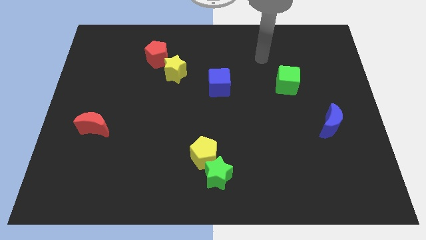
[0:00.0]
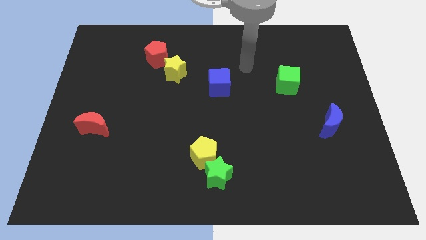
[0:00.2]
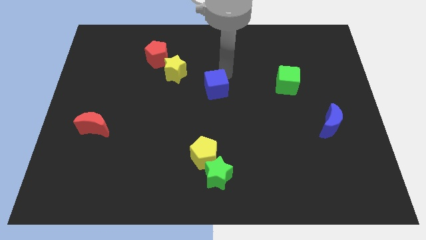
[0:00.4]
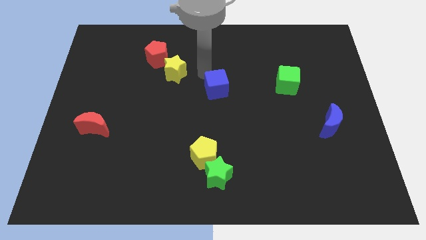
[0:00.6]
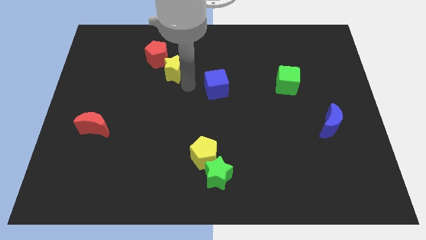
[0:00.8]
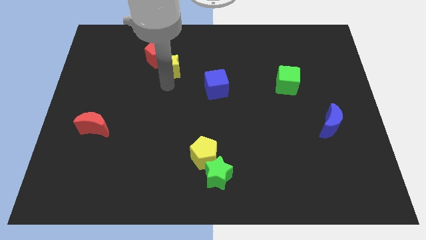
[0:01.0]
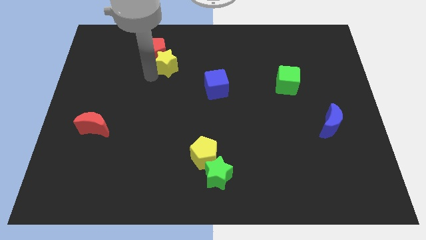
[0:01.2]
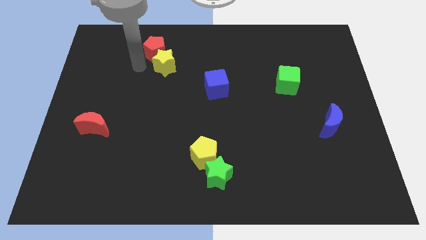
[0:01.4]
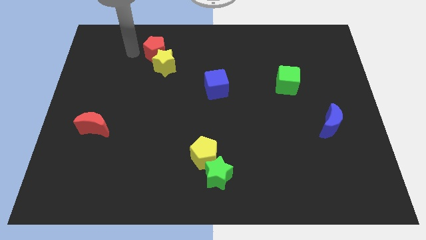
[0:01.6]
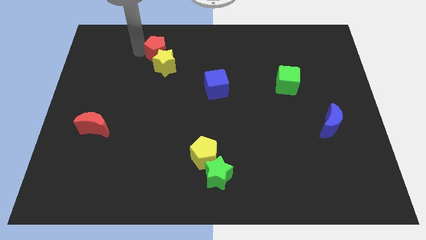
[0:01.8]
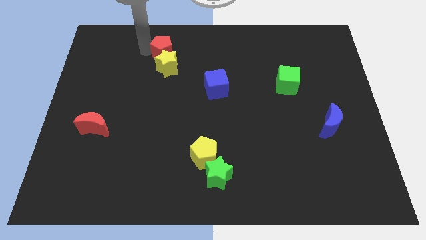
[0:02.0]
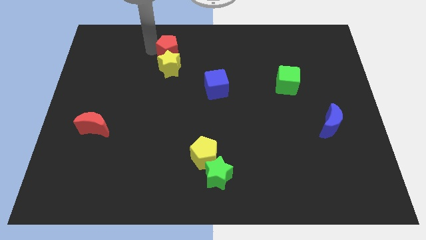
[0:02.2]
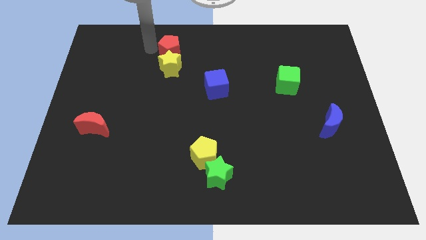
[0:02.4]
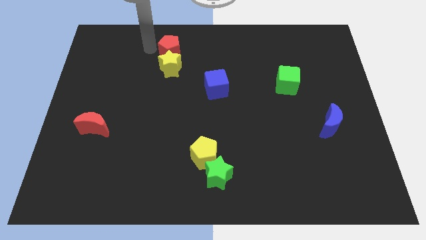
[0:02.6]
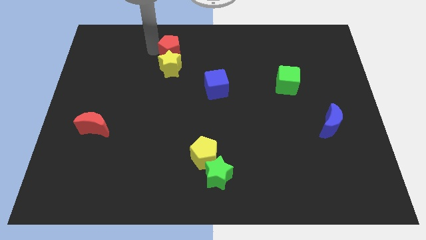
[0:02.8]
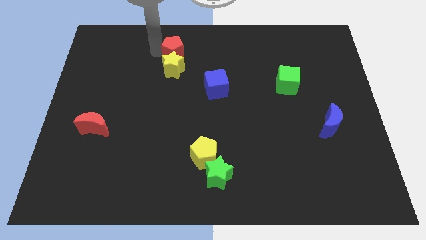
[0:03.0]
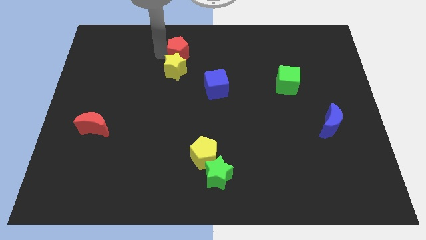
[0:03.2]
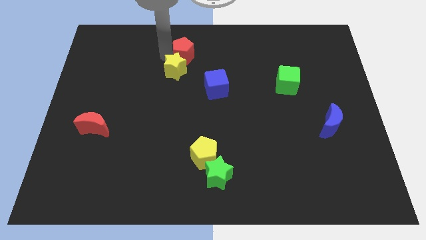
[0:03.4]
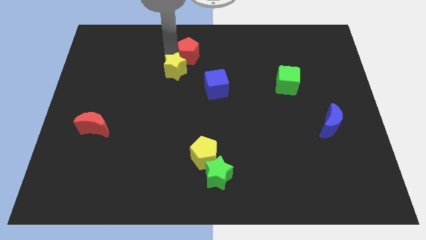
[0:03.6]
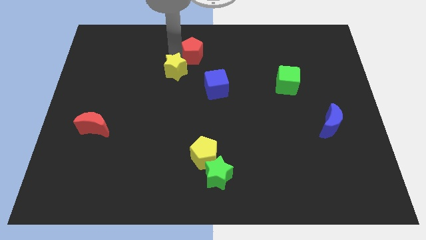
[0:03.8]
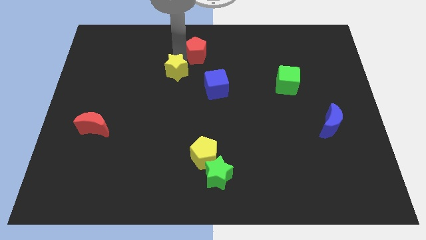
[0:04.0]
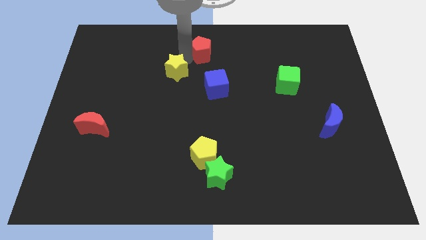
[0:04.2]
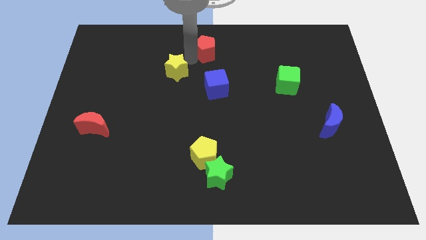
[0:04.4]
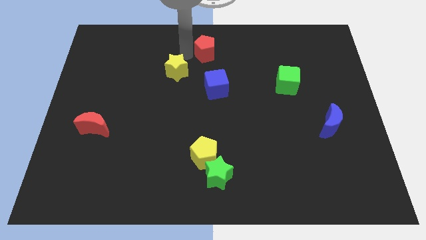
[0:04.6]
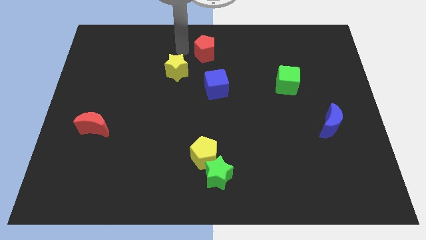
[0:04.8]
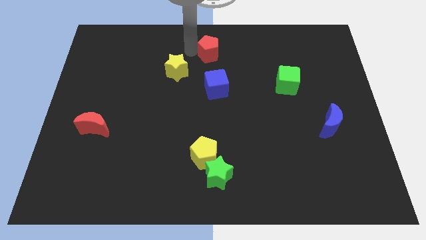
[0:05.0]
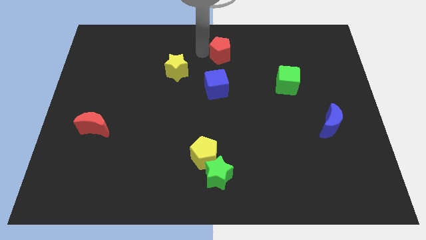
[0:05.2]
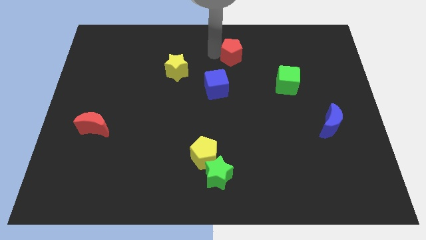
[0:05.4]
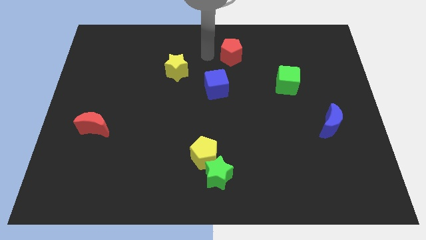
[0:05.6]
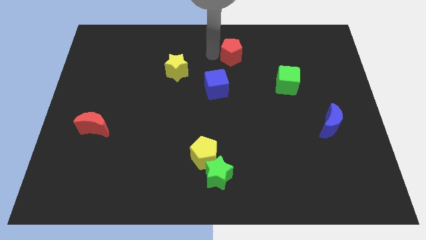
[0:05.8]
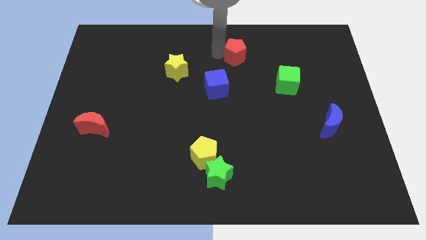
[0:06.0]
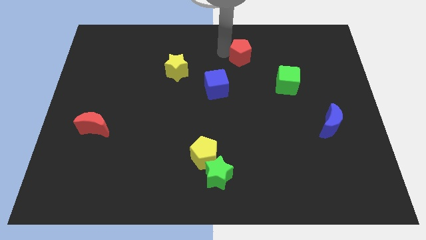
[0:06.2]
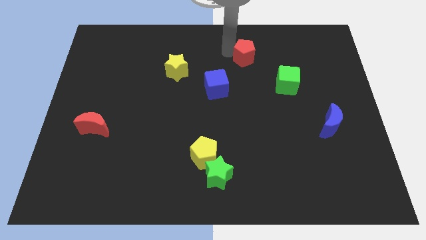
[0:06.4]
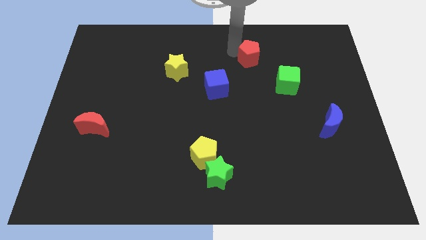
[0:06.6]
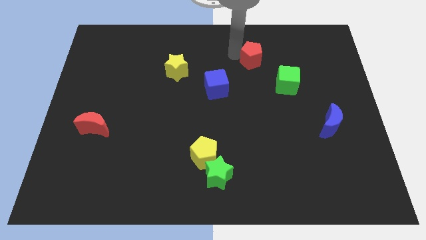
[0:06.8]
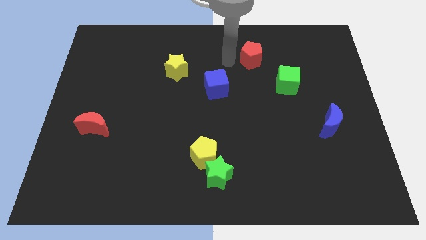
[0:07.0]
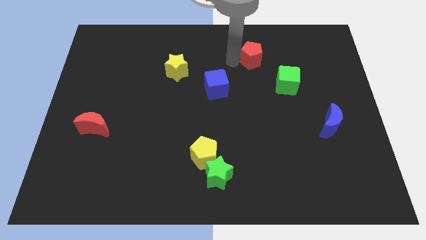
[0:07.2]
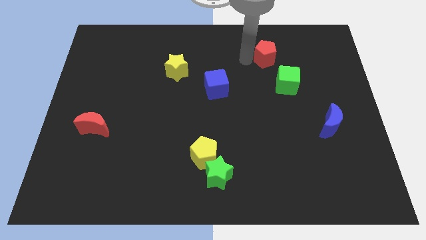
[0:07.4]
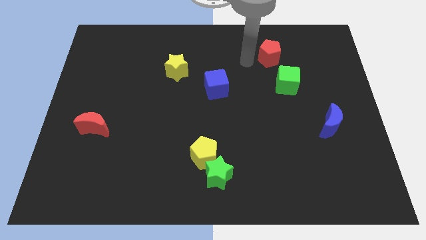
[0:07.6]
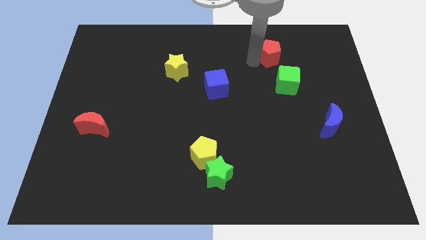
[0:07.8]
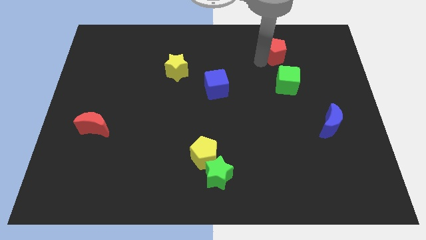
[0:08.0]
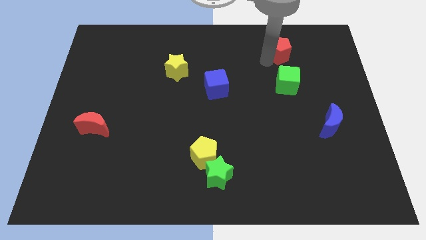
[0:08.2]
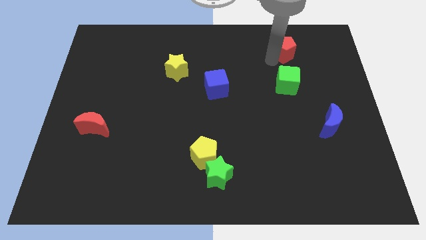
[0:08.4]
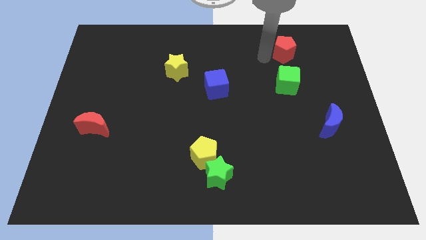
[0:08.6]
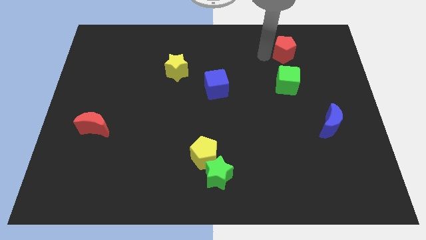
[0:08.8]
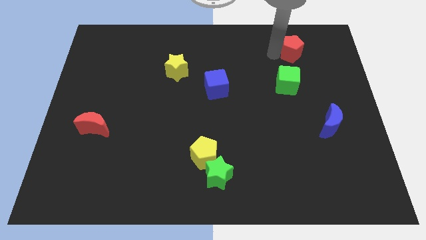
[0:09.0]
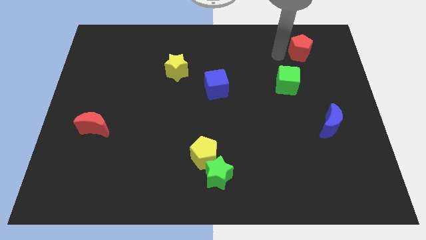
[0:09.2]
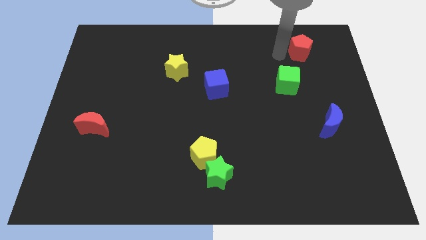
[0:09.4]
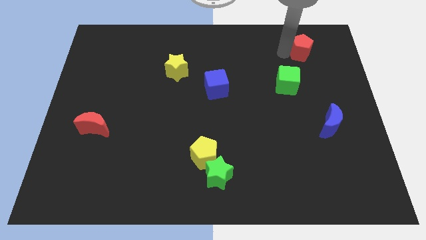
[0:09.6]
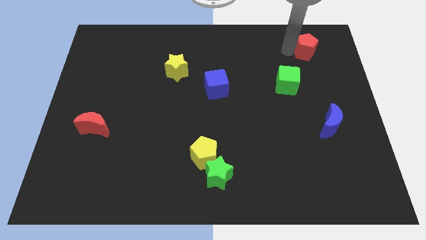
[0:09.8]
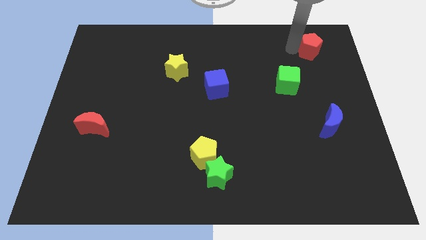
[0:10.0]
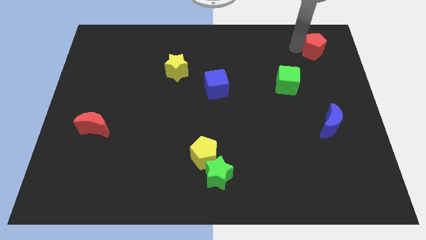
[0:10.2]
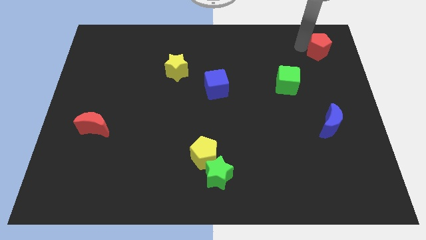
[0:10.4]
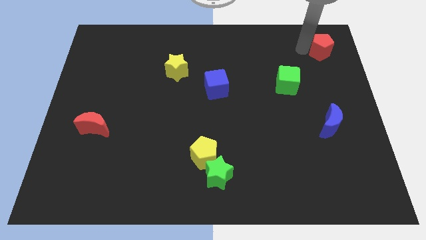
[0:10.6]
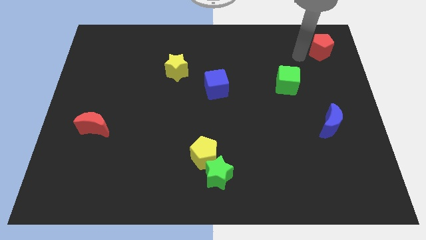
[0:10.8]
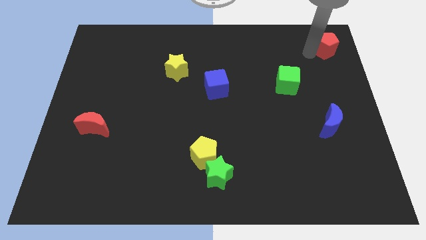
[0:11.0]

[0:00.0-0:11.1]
push the red pentagon to the top right

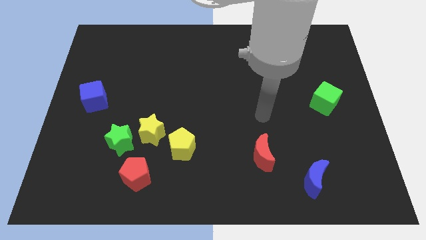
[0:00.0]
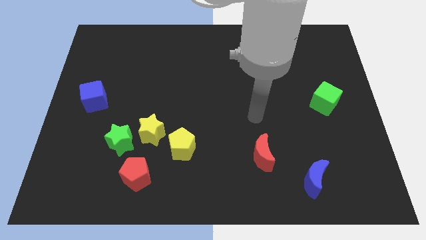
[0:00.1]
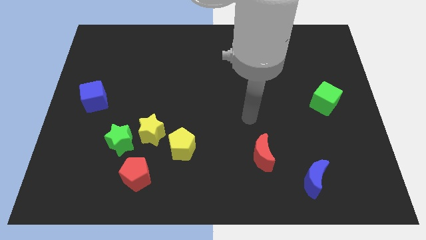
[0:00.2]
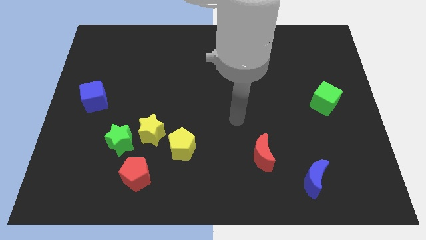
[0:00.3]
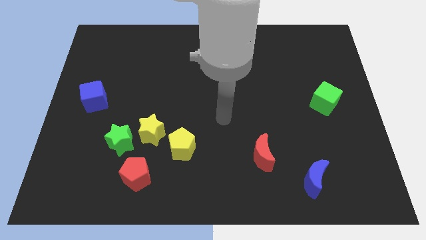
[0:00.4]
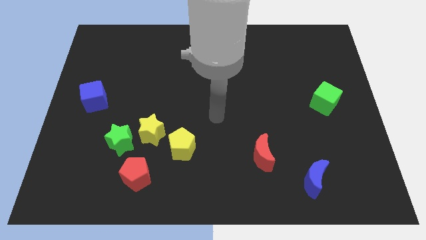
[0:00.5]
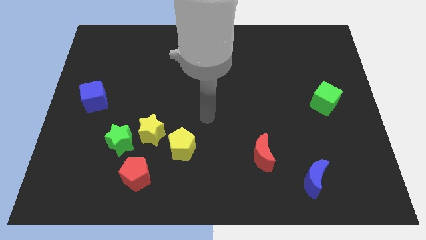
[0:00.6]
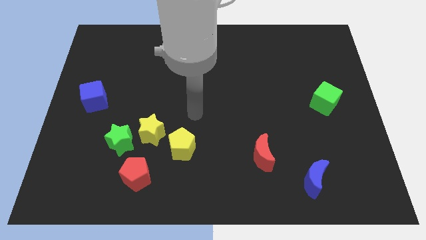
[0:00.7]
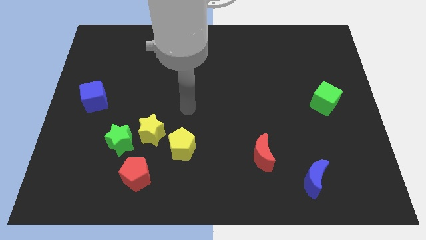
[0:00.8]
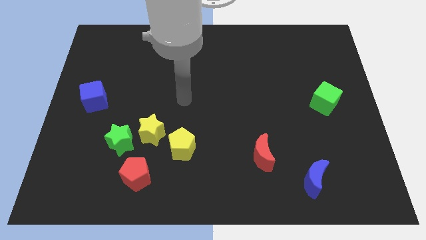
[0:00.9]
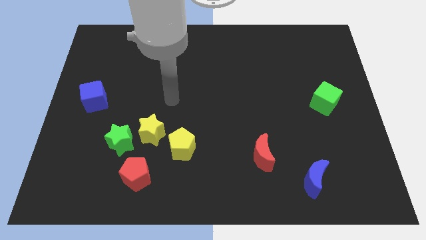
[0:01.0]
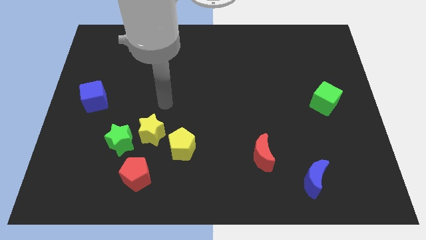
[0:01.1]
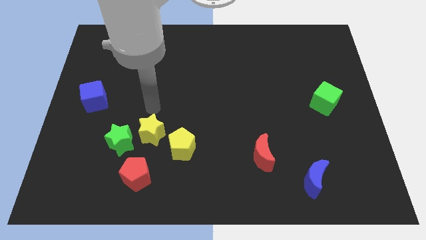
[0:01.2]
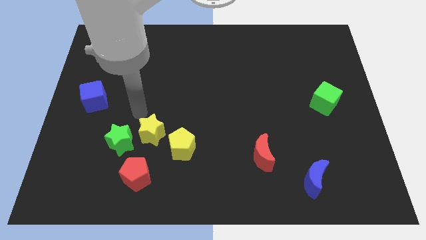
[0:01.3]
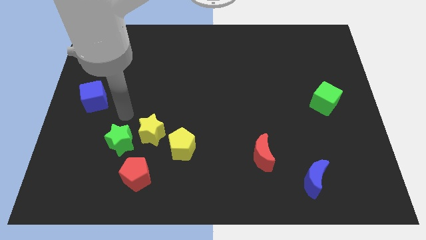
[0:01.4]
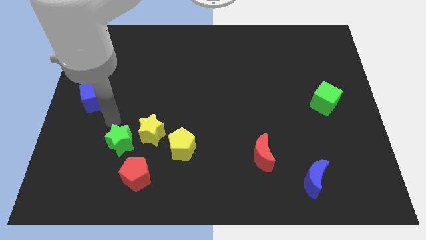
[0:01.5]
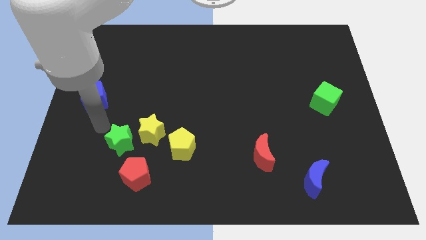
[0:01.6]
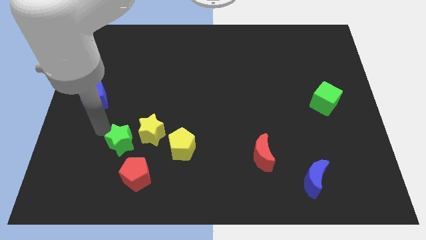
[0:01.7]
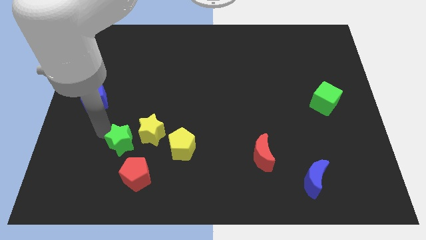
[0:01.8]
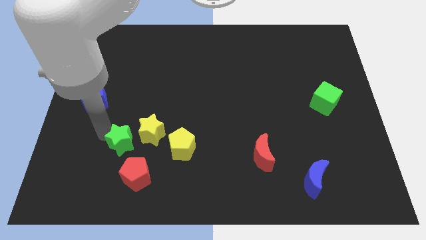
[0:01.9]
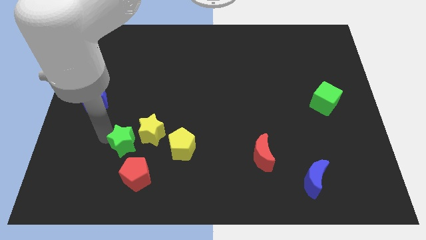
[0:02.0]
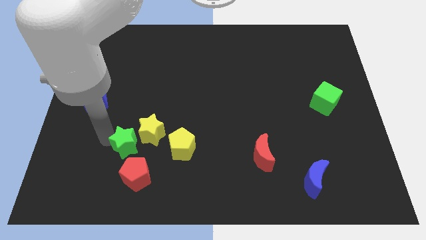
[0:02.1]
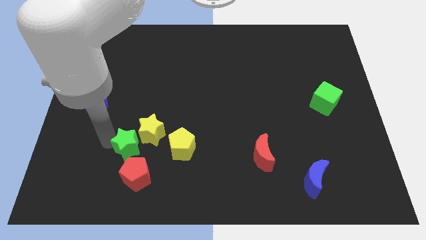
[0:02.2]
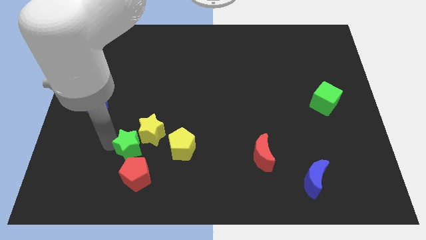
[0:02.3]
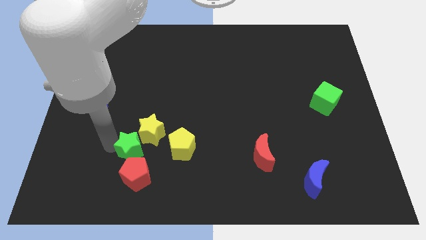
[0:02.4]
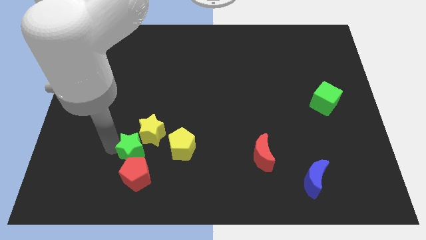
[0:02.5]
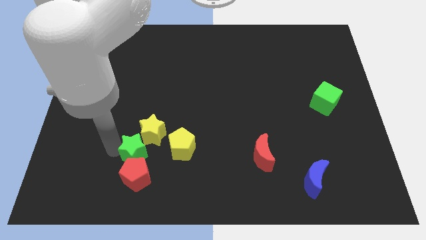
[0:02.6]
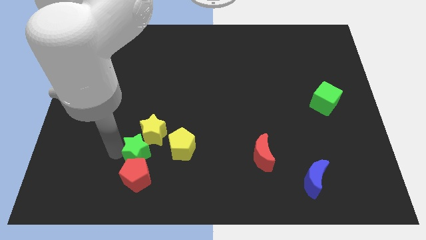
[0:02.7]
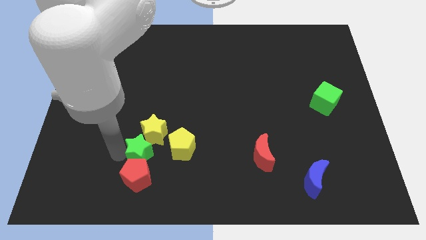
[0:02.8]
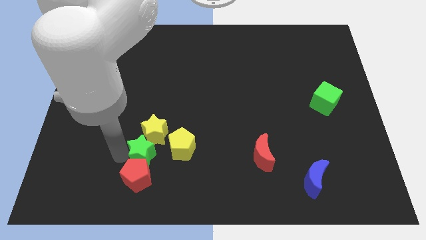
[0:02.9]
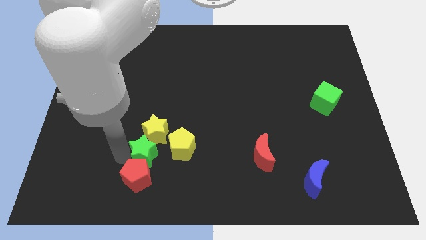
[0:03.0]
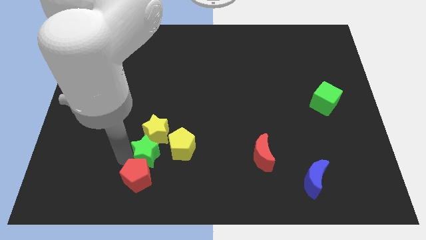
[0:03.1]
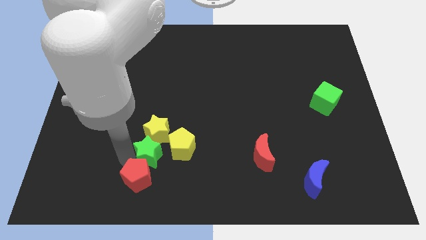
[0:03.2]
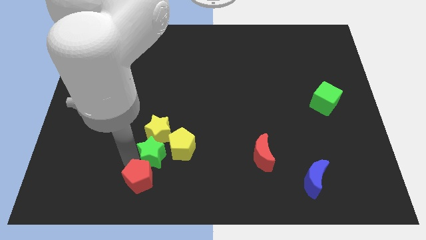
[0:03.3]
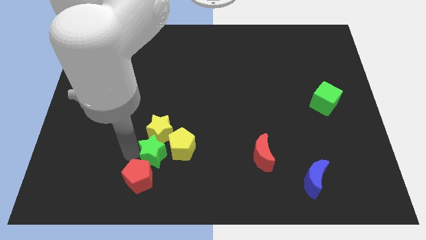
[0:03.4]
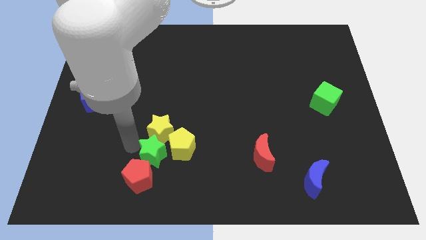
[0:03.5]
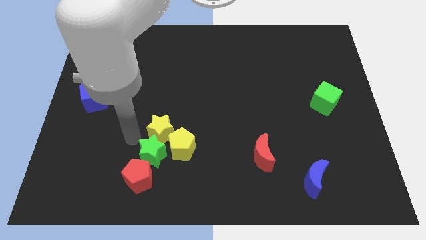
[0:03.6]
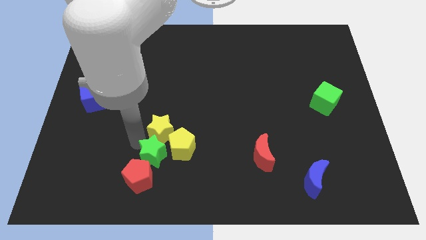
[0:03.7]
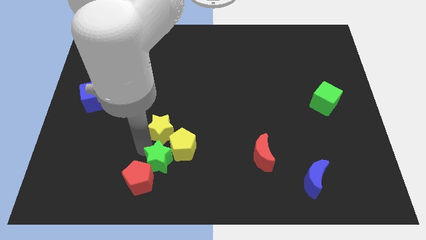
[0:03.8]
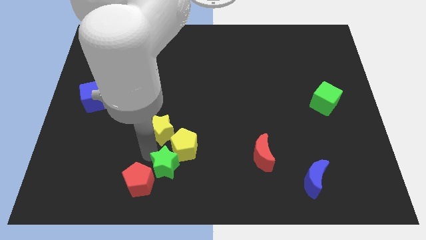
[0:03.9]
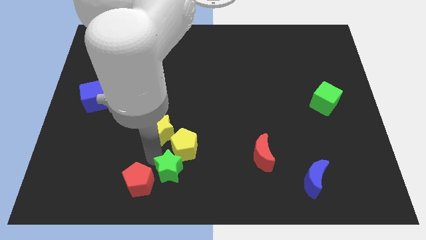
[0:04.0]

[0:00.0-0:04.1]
push the green star to the bottom side
